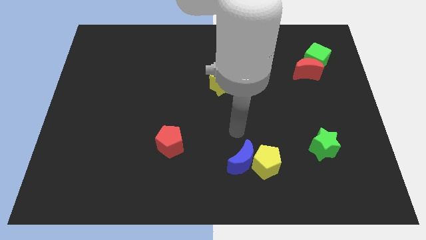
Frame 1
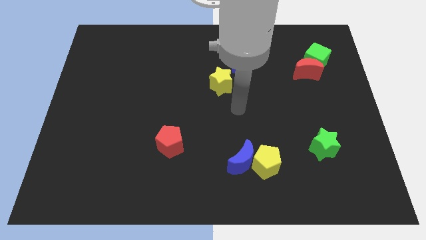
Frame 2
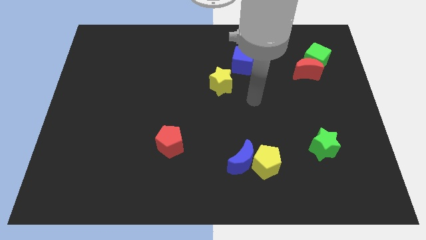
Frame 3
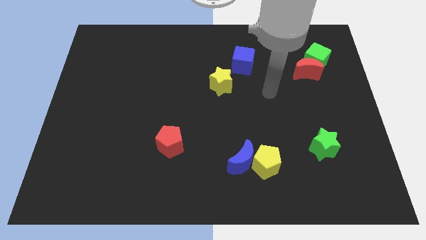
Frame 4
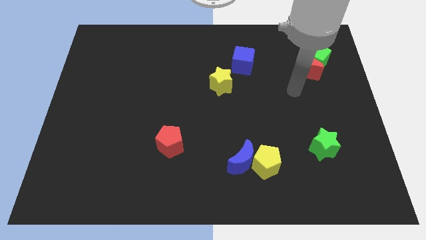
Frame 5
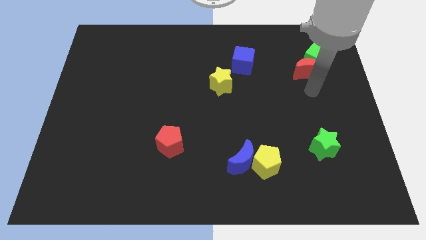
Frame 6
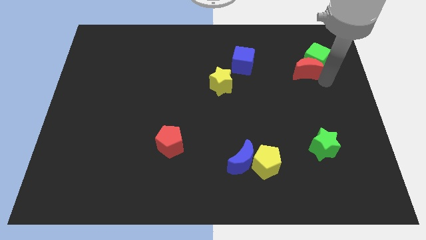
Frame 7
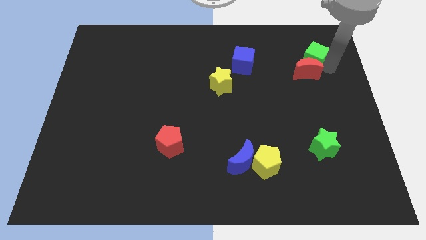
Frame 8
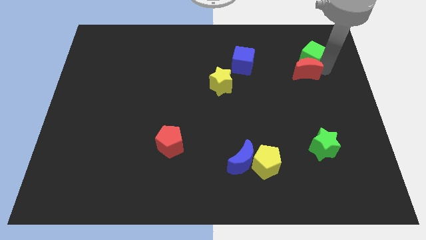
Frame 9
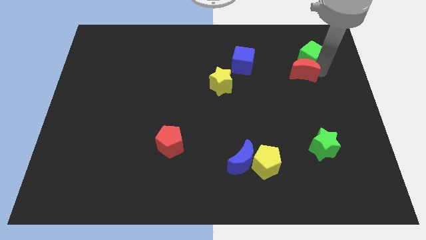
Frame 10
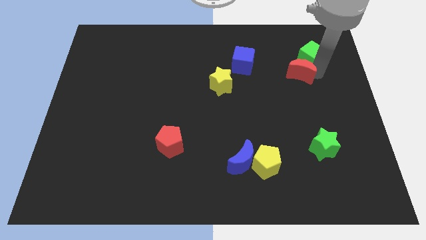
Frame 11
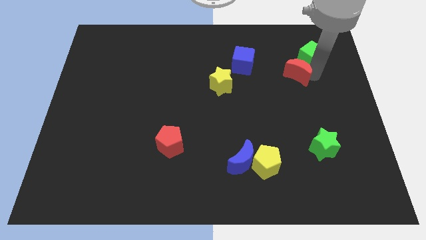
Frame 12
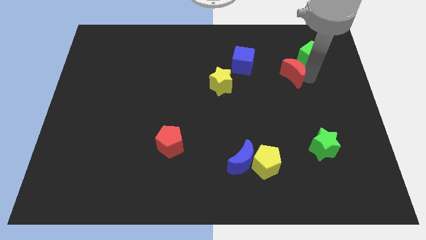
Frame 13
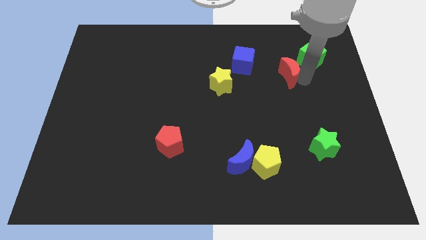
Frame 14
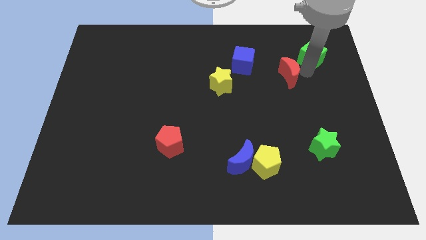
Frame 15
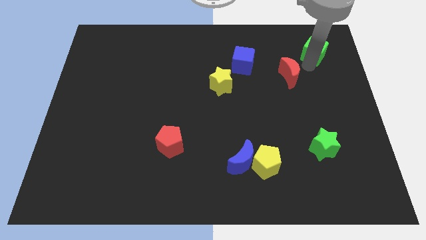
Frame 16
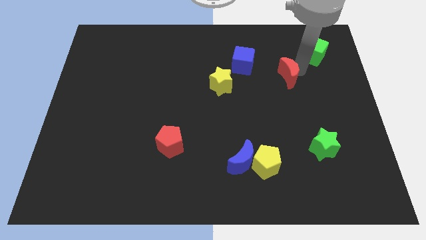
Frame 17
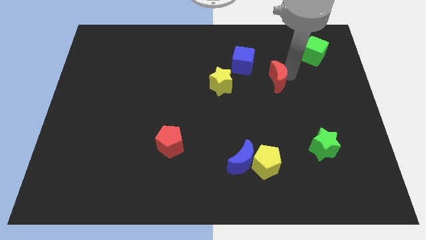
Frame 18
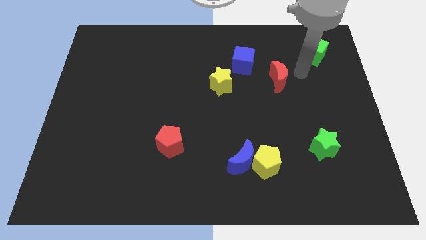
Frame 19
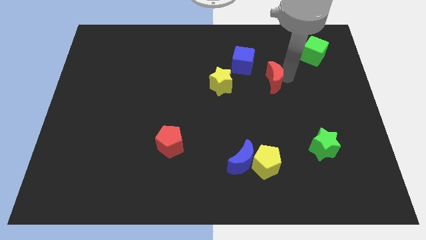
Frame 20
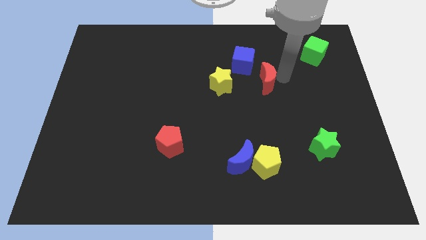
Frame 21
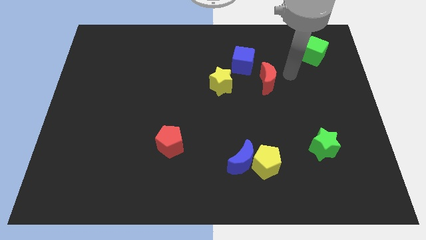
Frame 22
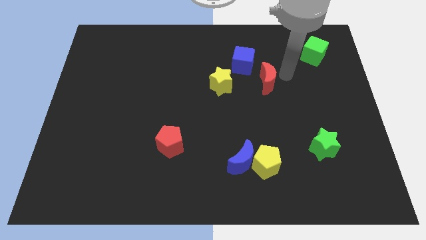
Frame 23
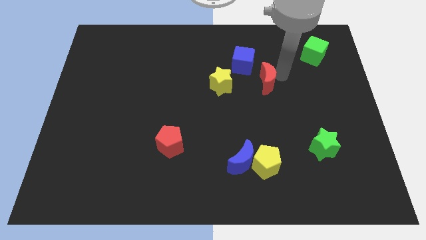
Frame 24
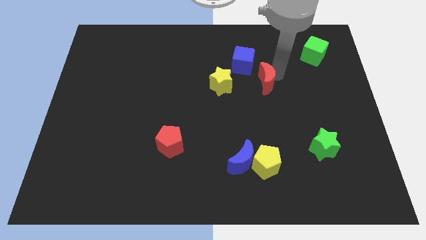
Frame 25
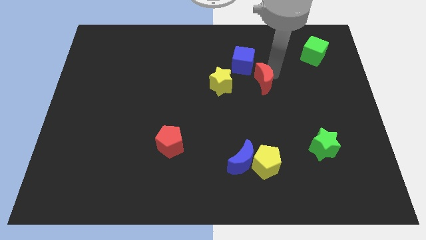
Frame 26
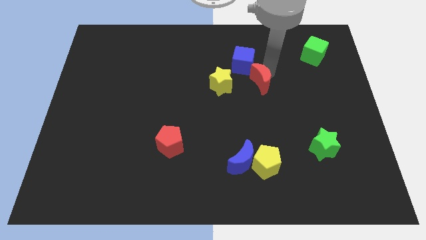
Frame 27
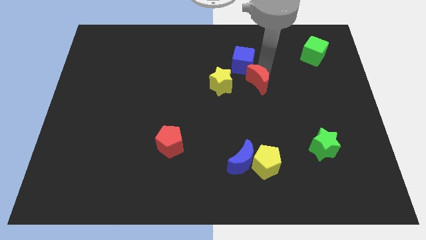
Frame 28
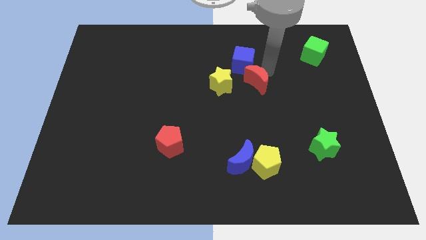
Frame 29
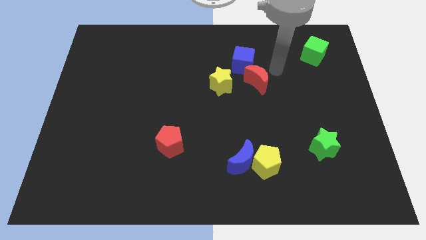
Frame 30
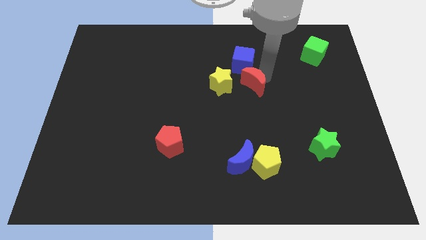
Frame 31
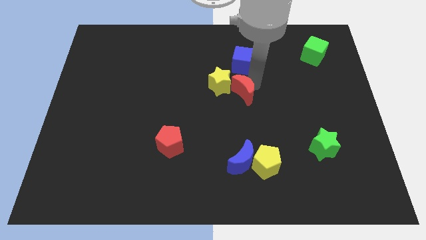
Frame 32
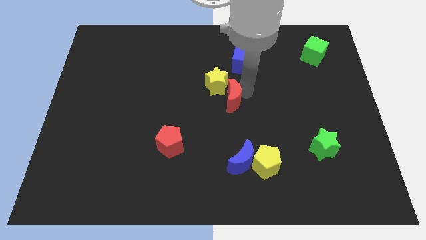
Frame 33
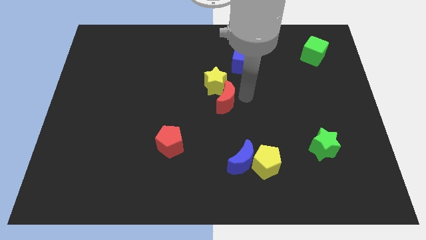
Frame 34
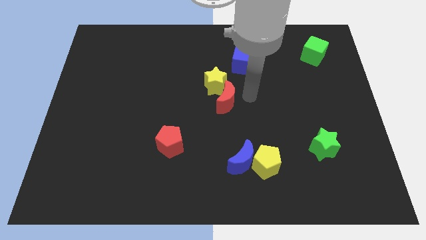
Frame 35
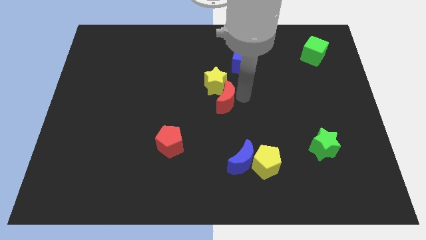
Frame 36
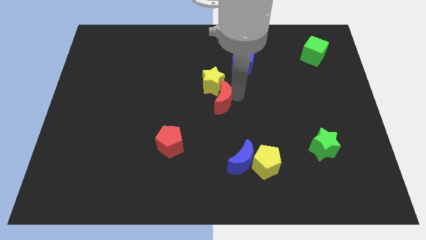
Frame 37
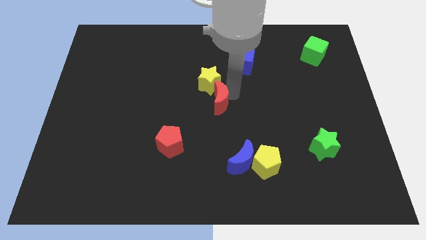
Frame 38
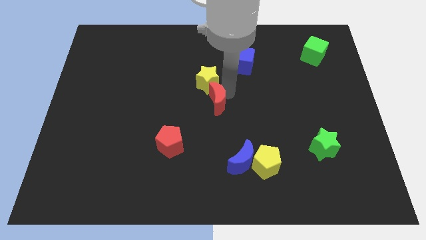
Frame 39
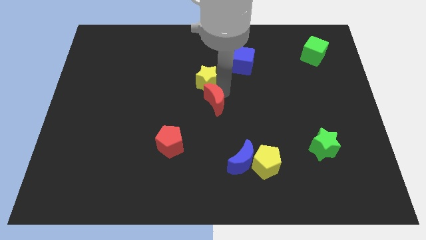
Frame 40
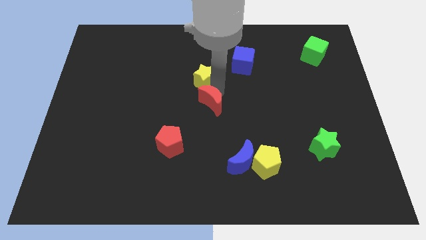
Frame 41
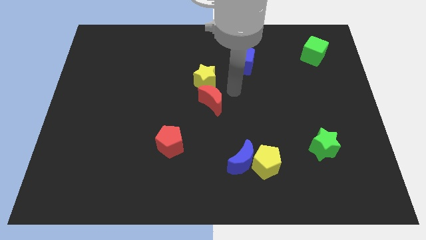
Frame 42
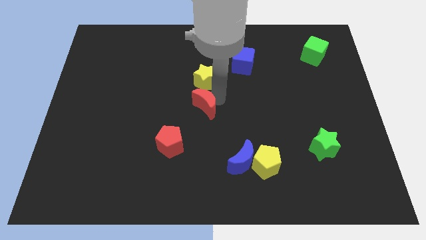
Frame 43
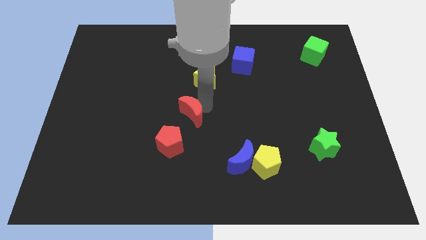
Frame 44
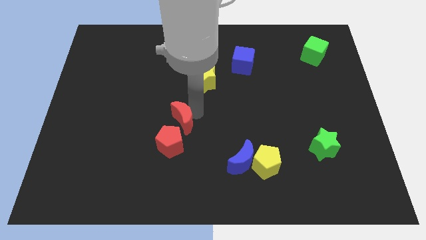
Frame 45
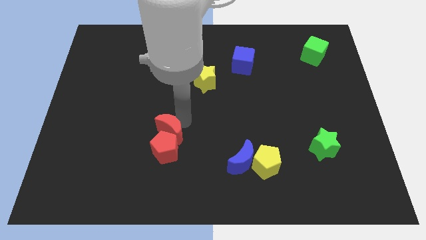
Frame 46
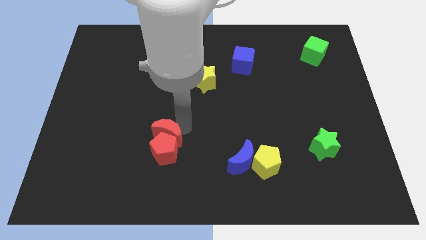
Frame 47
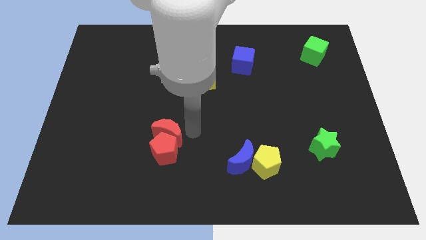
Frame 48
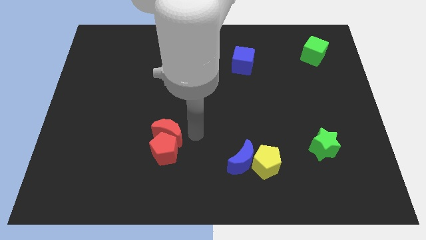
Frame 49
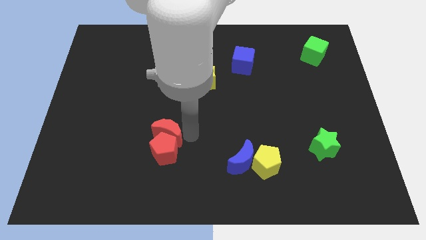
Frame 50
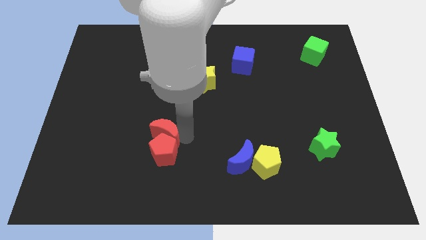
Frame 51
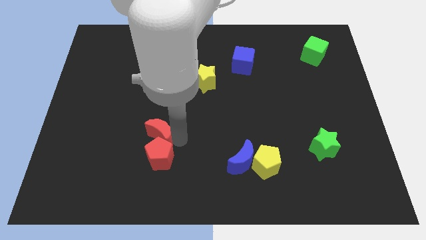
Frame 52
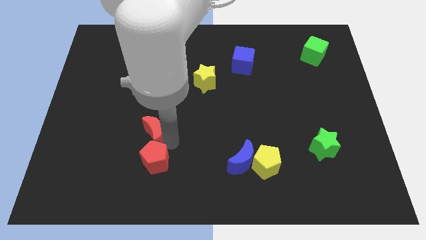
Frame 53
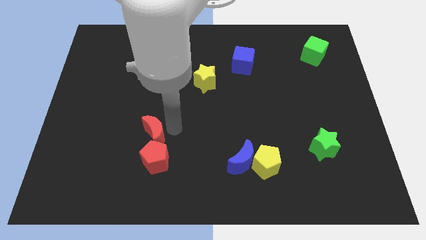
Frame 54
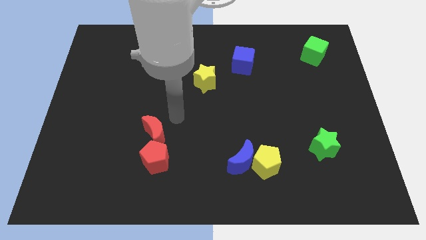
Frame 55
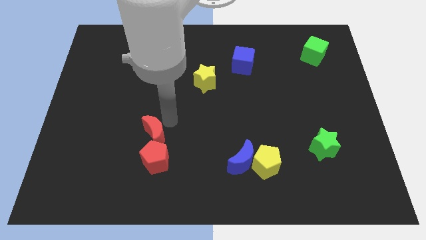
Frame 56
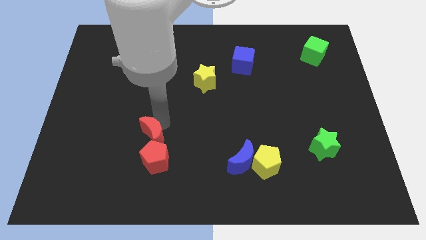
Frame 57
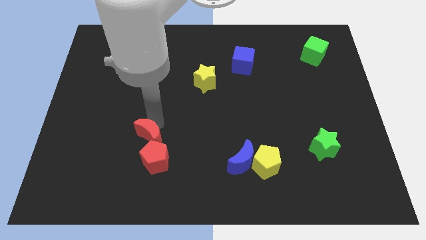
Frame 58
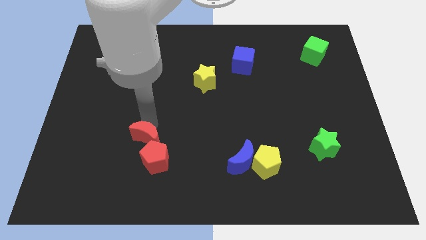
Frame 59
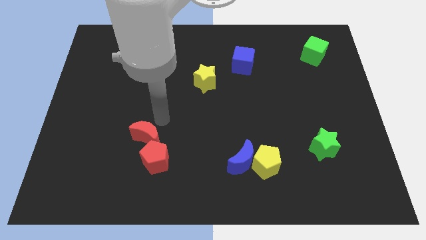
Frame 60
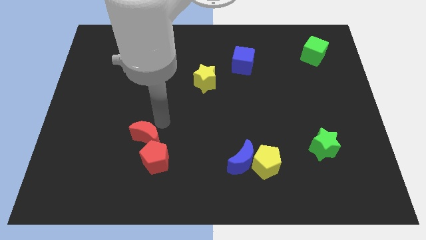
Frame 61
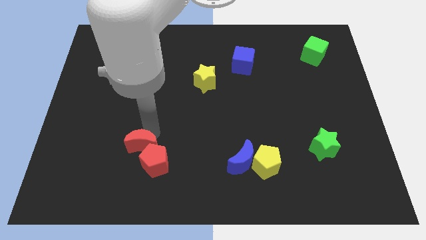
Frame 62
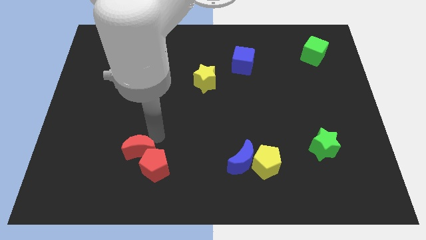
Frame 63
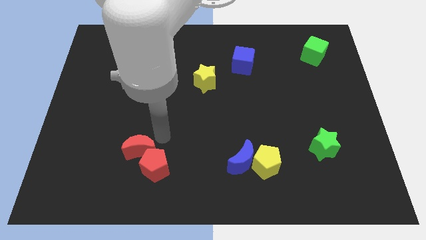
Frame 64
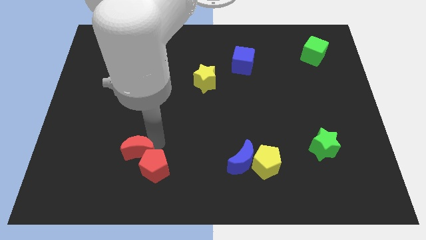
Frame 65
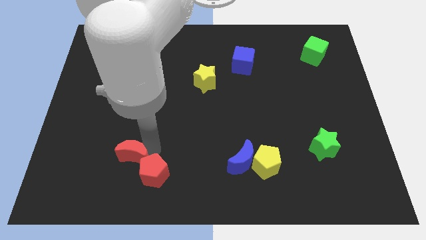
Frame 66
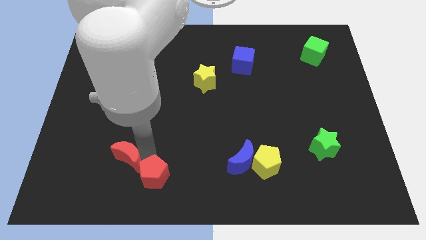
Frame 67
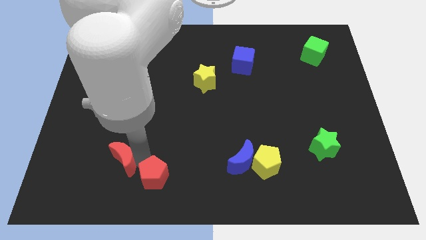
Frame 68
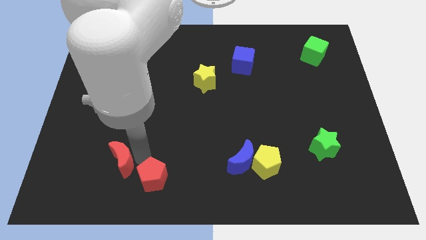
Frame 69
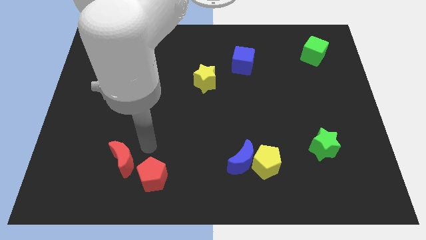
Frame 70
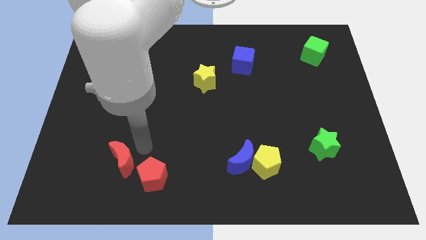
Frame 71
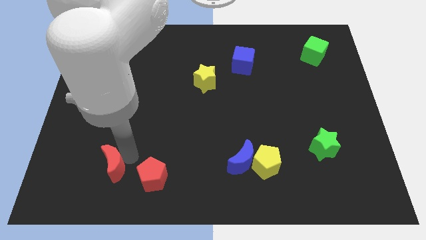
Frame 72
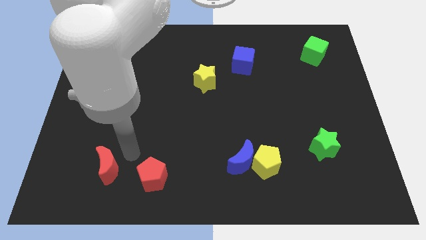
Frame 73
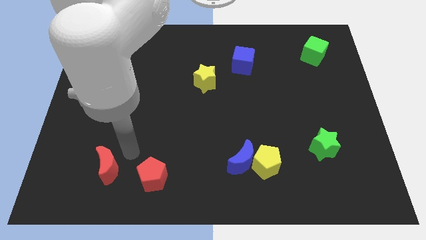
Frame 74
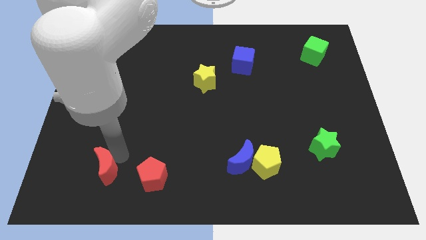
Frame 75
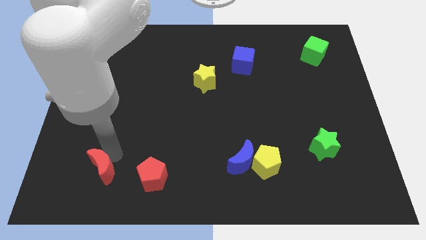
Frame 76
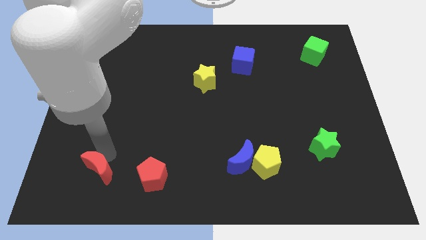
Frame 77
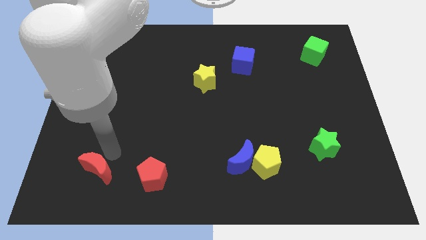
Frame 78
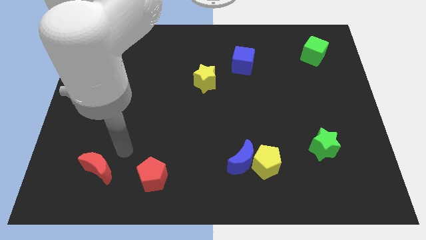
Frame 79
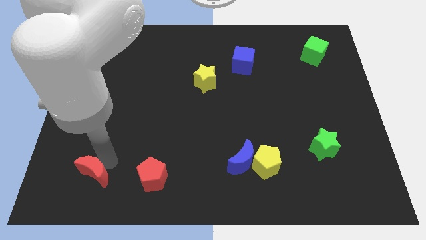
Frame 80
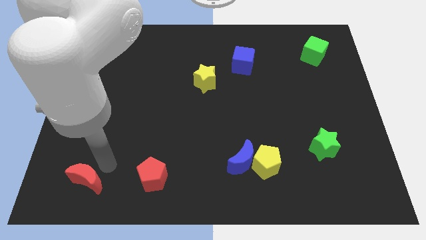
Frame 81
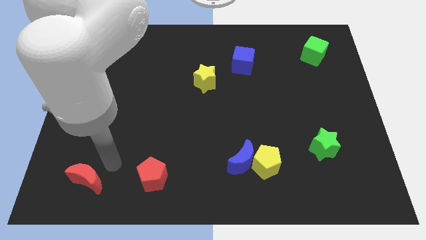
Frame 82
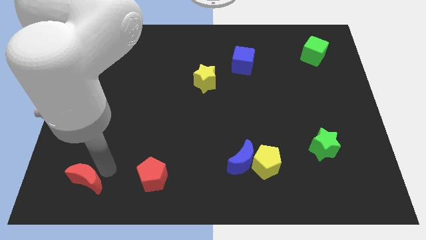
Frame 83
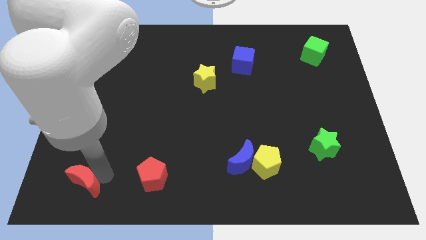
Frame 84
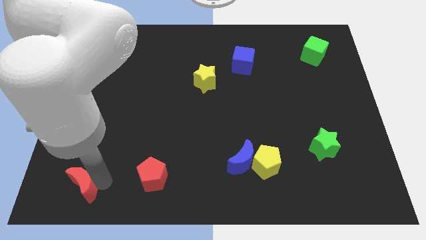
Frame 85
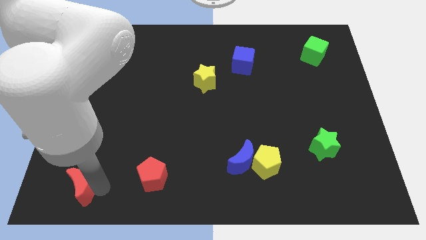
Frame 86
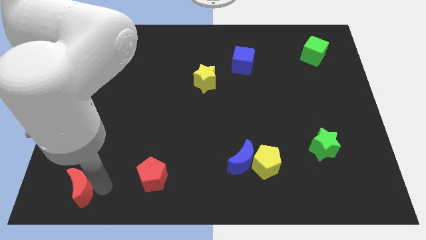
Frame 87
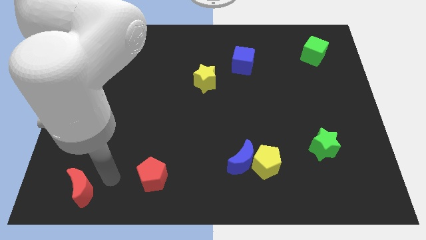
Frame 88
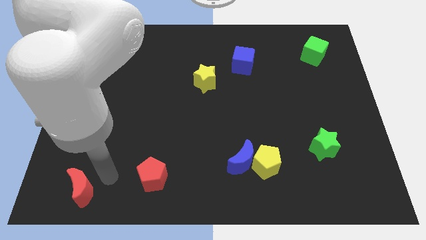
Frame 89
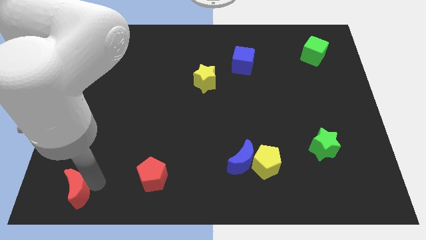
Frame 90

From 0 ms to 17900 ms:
move the red moon to the bottom left
